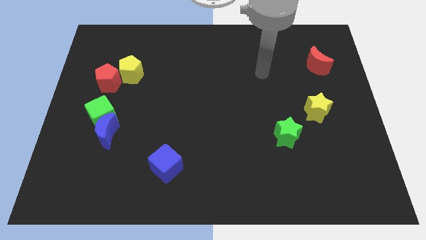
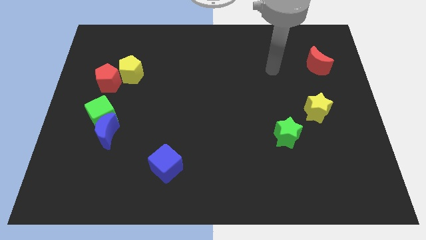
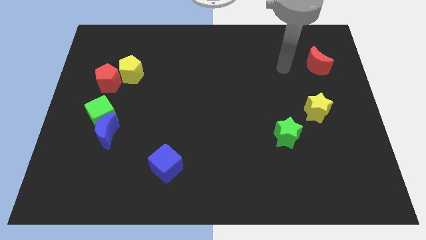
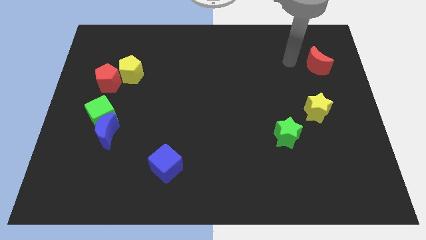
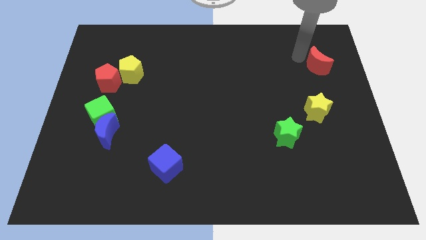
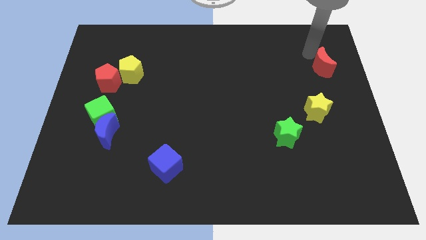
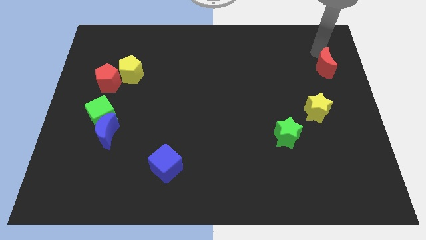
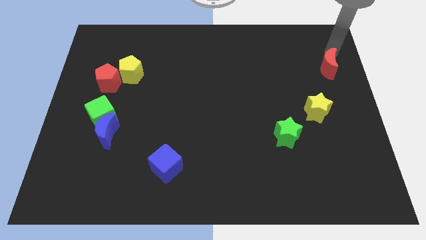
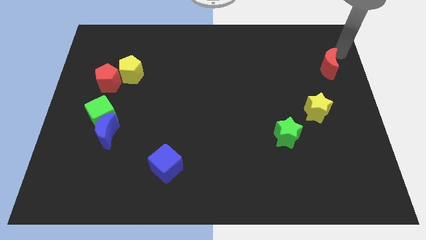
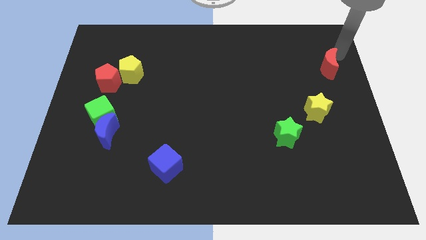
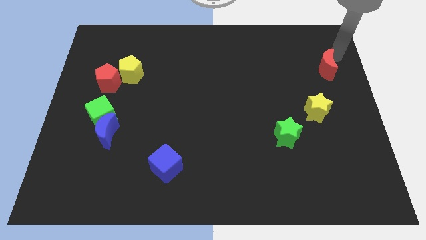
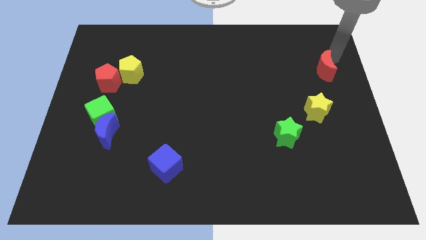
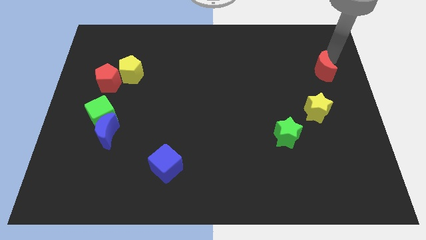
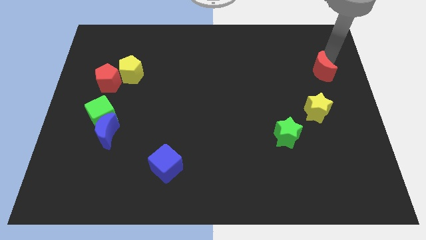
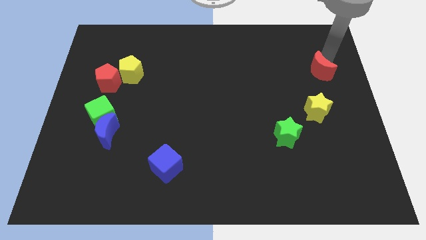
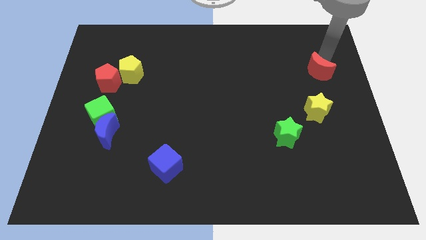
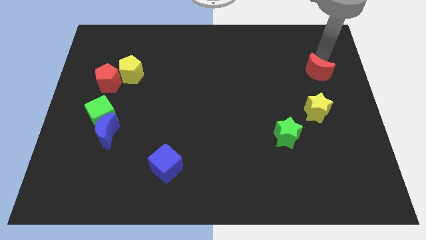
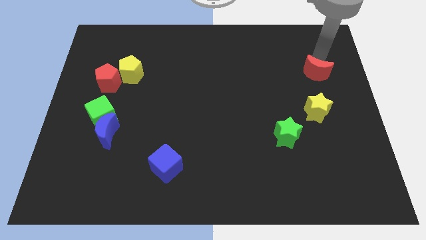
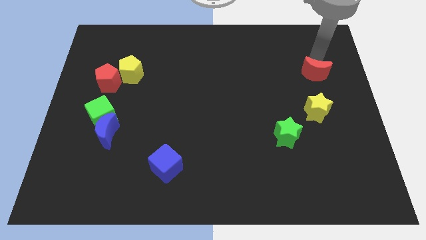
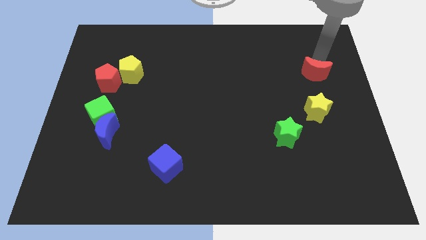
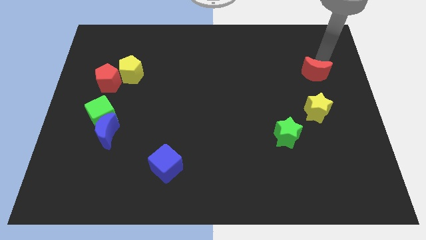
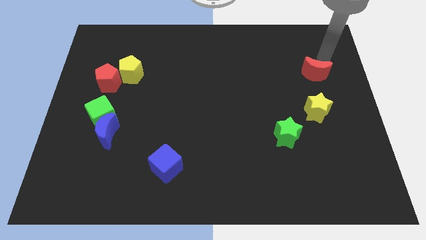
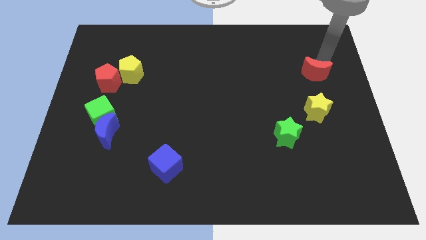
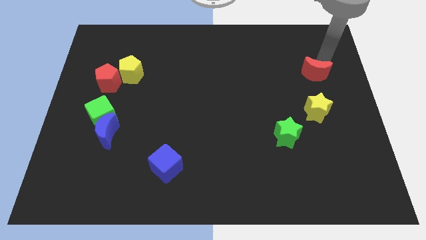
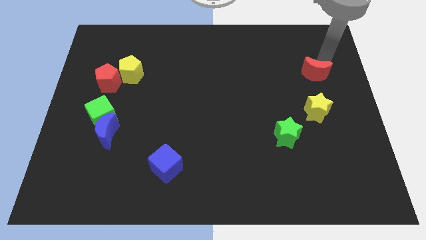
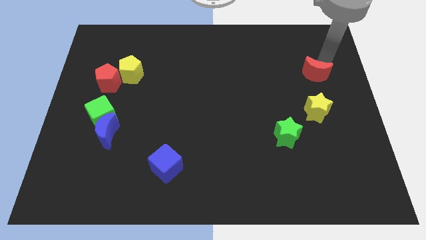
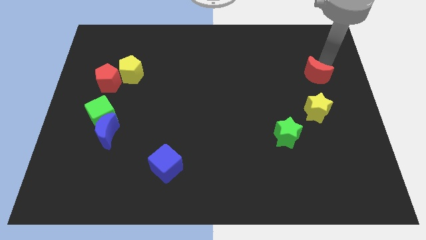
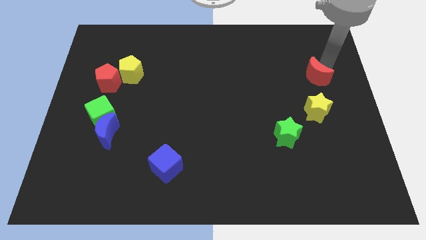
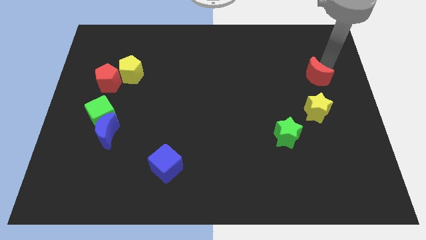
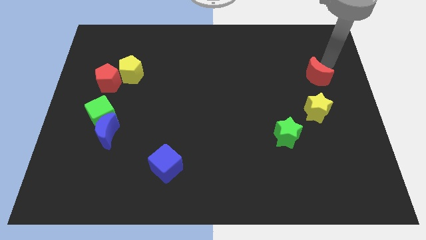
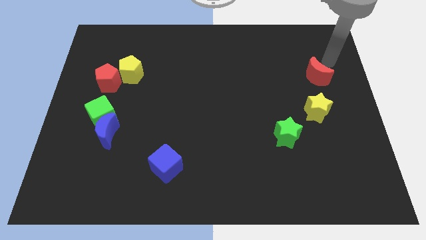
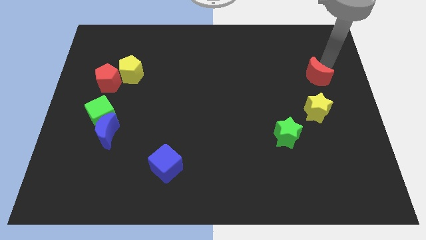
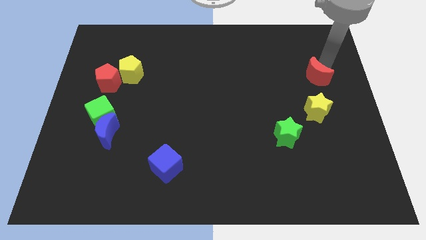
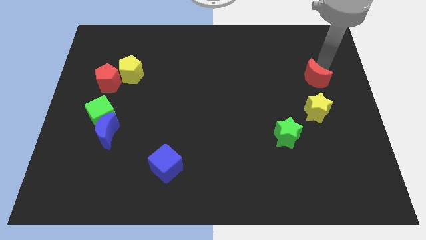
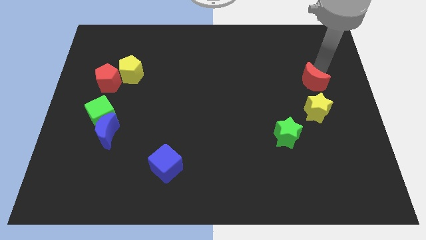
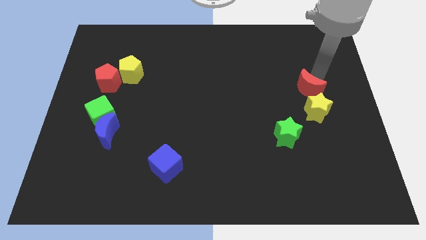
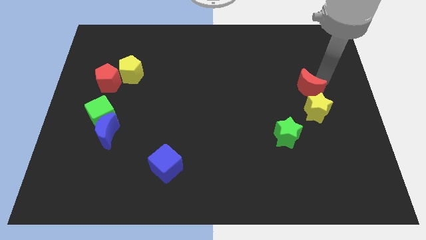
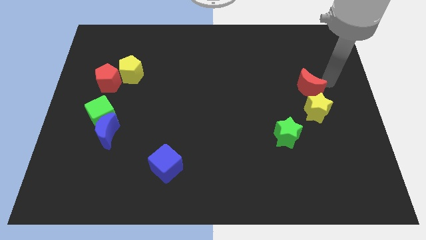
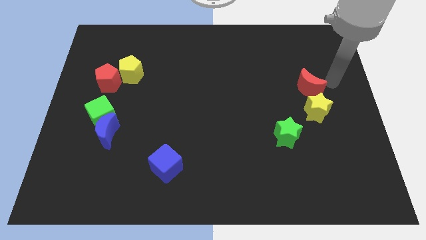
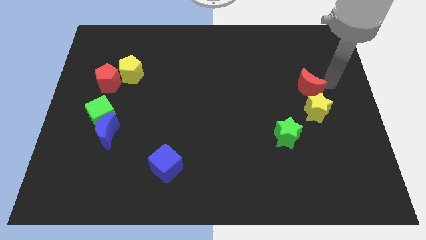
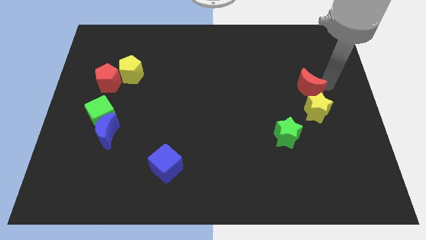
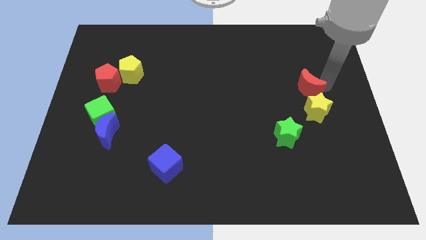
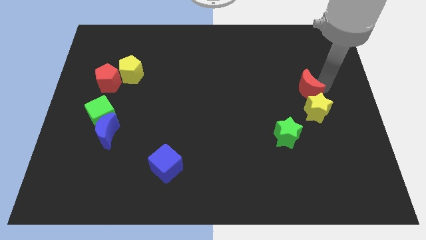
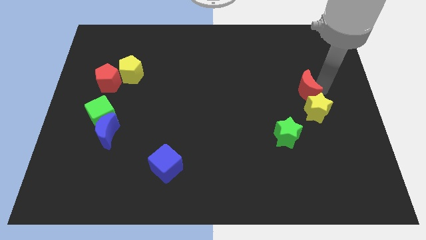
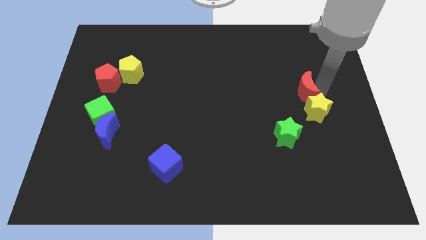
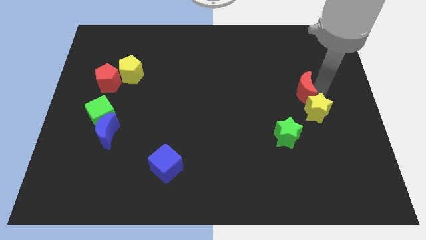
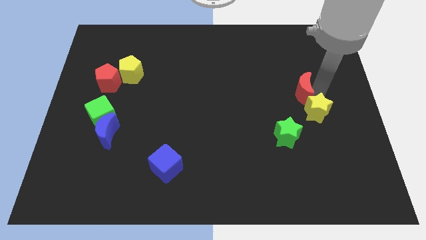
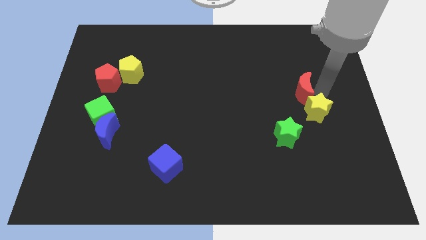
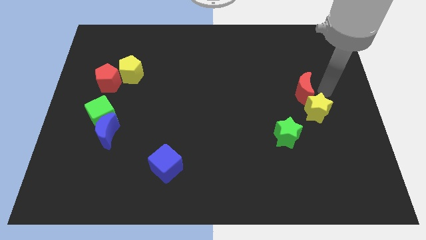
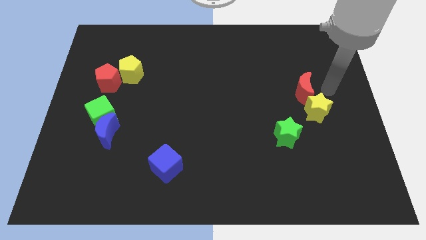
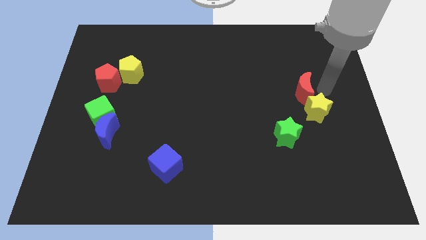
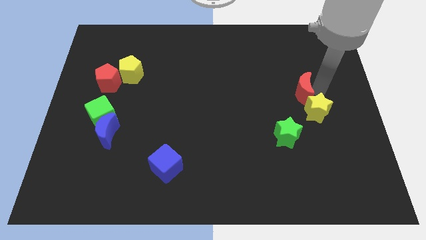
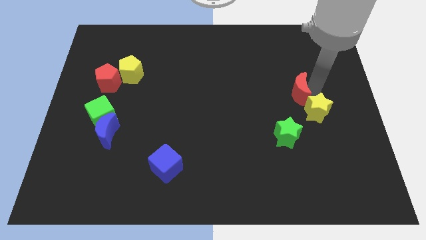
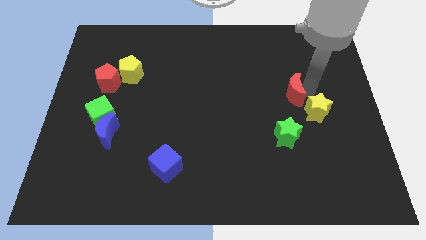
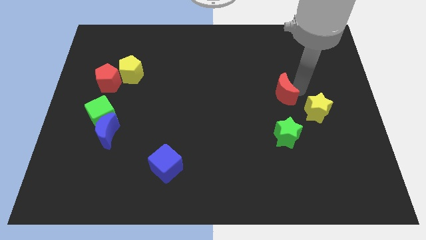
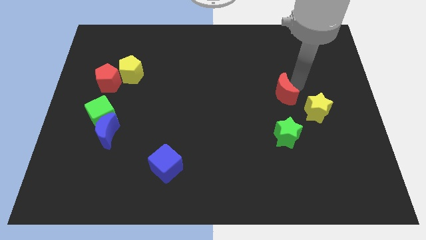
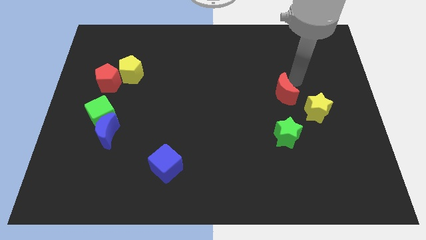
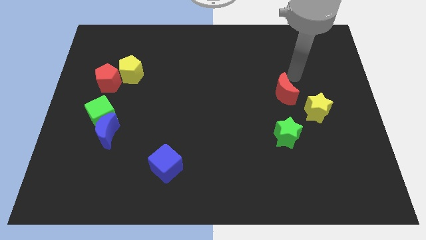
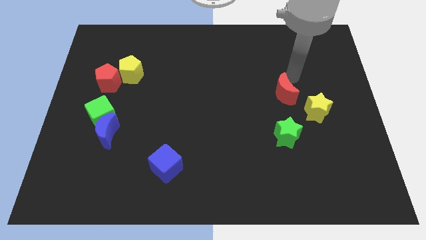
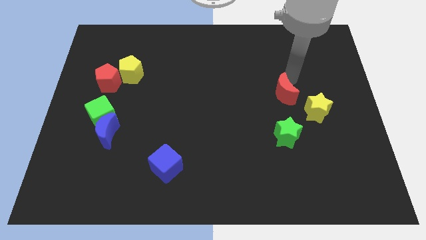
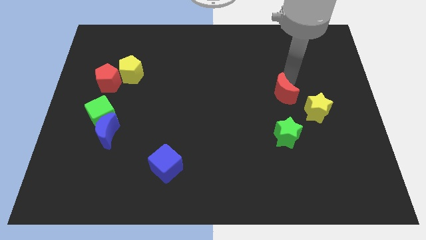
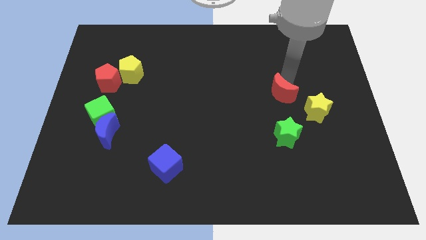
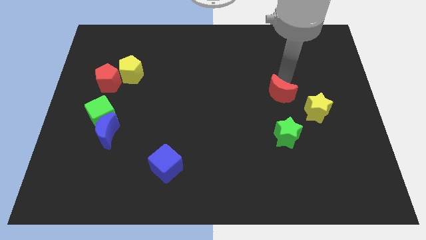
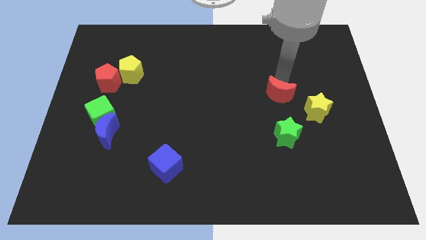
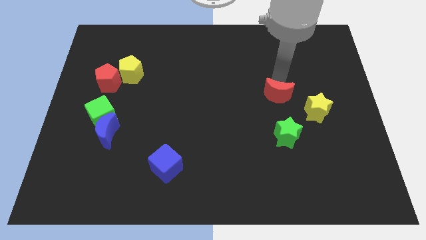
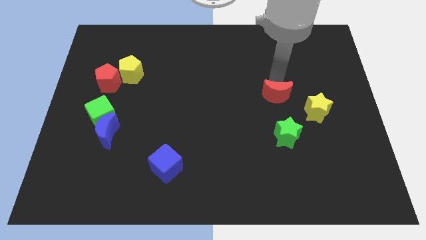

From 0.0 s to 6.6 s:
slide the red moon to the left side of the yellow star

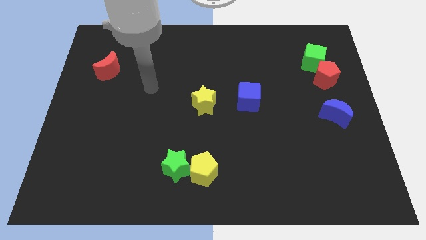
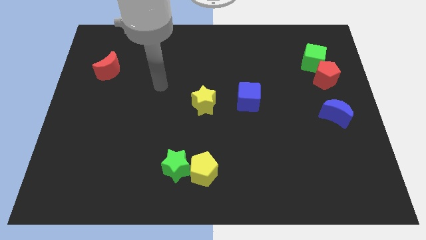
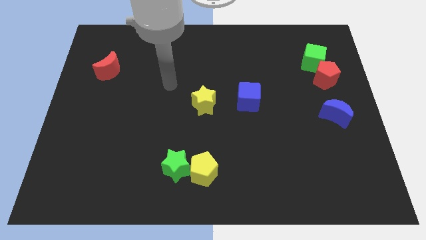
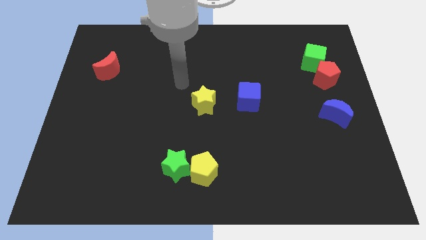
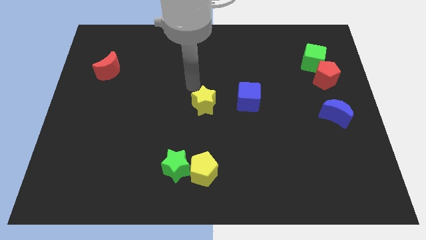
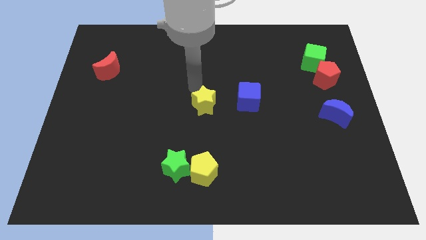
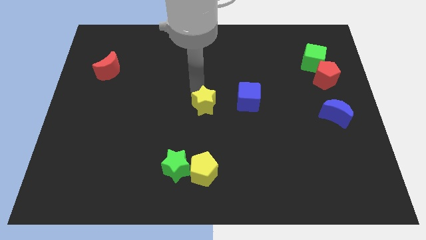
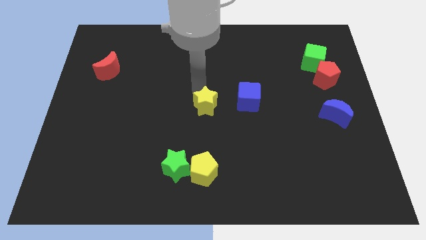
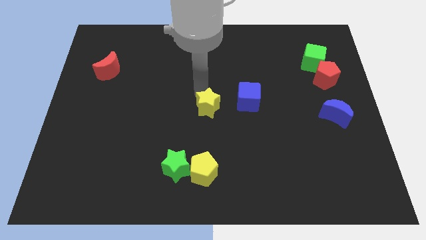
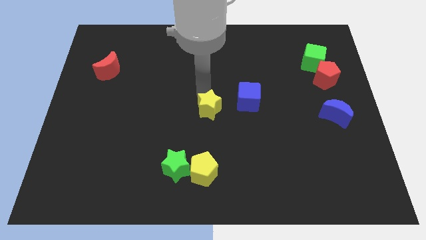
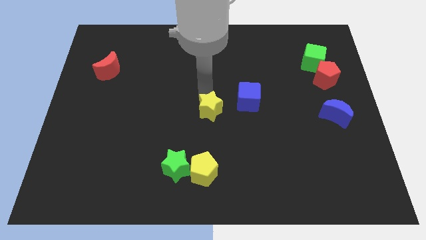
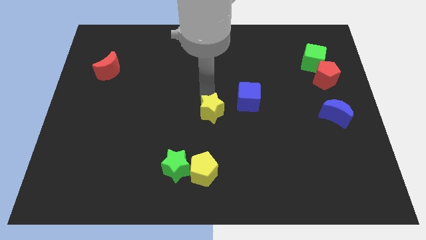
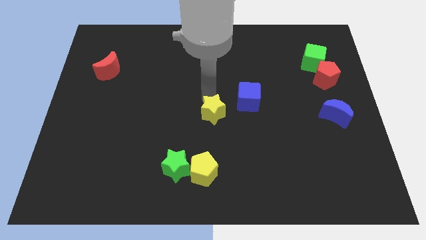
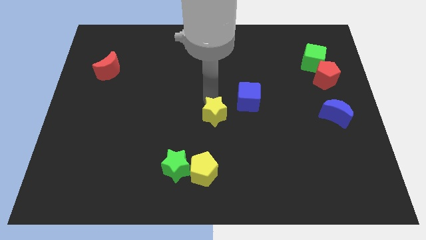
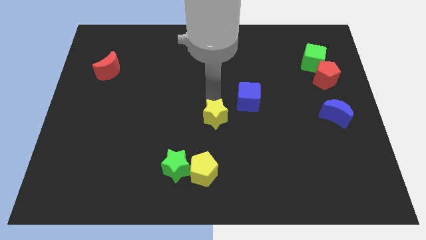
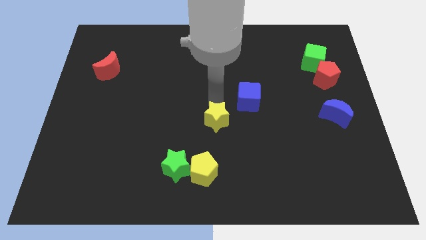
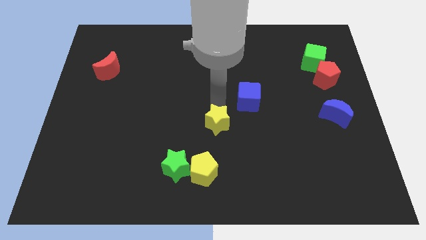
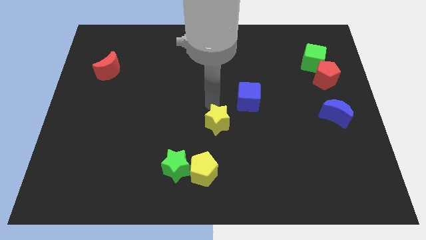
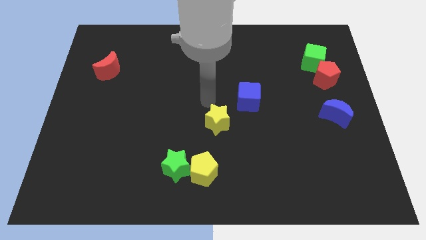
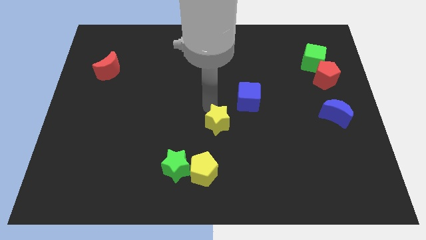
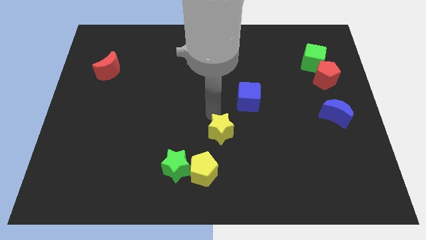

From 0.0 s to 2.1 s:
push the yellow star diagonally up and to the right of the yellow pentagon
